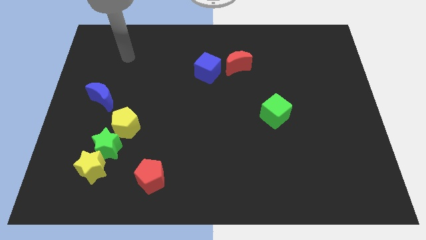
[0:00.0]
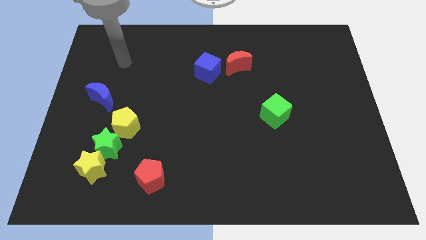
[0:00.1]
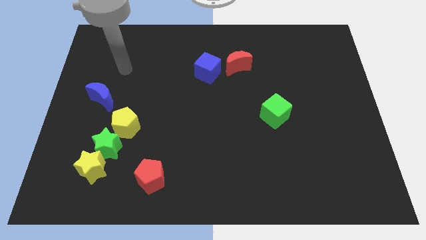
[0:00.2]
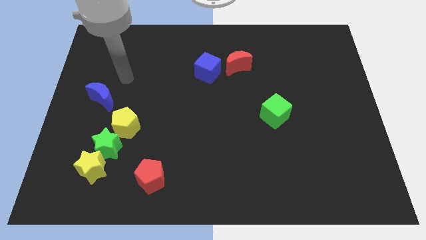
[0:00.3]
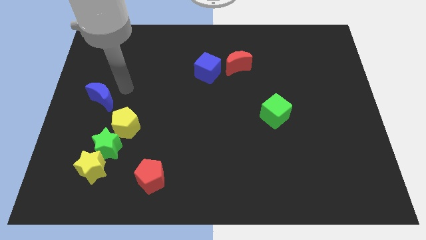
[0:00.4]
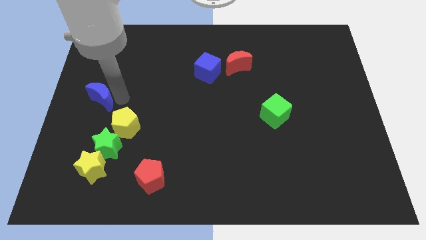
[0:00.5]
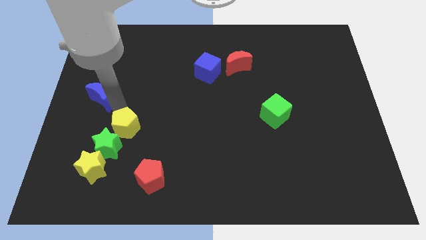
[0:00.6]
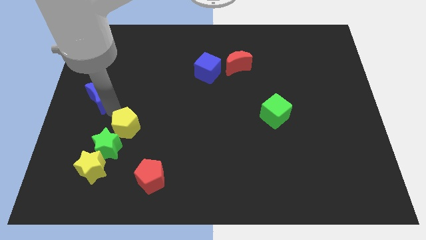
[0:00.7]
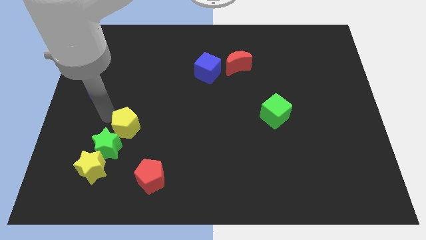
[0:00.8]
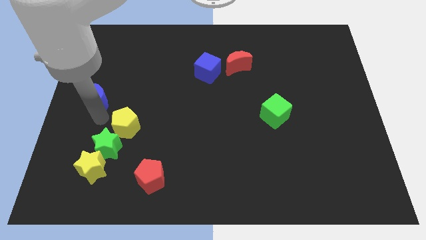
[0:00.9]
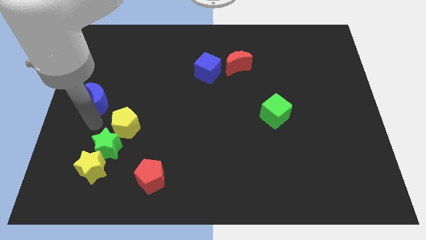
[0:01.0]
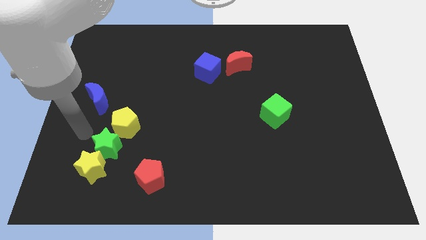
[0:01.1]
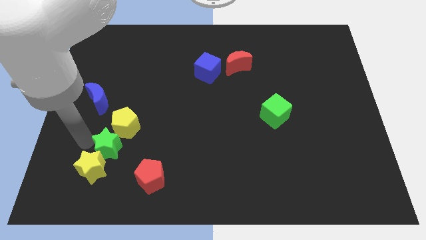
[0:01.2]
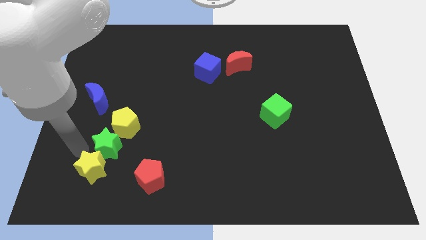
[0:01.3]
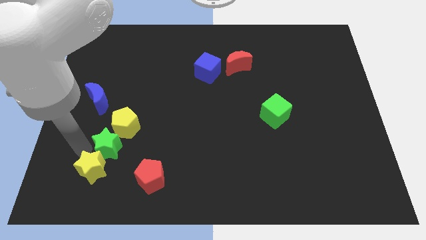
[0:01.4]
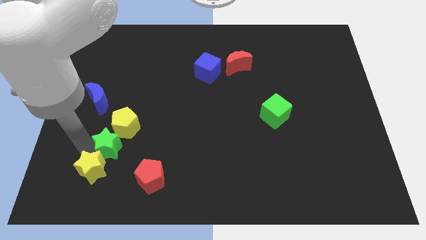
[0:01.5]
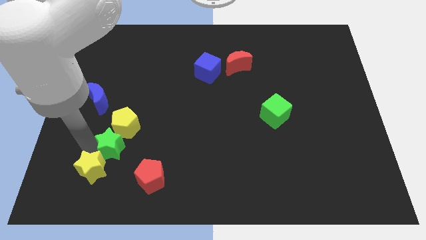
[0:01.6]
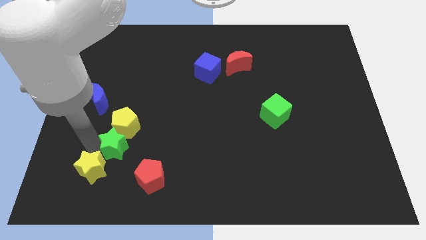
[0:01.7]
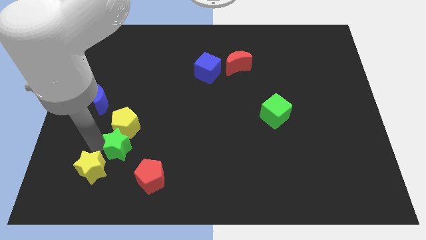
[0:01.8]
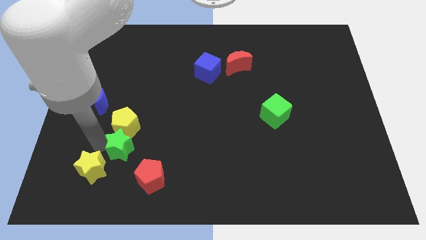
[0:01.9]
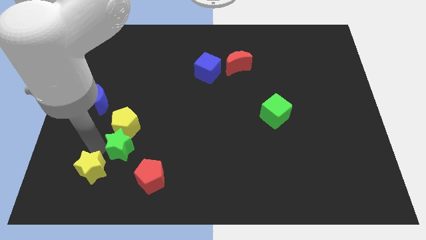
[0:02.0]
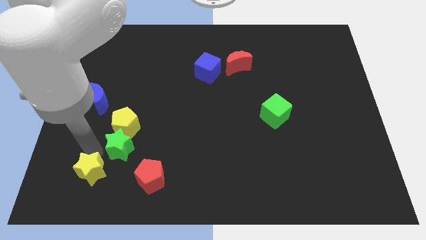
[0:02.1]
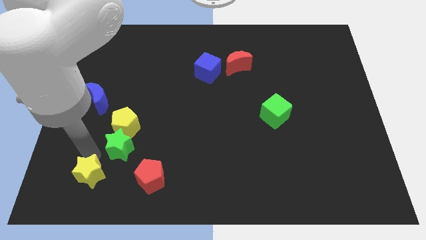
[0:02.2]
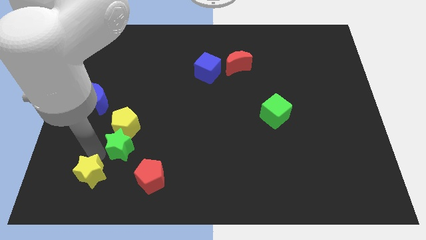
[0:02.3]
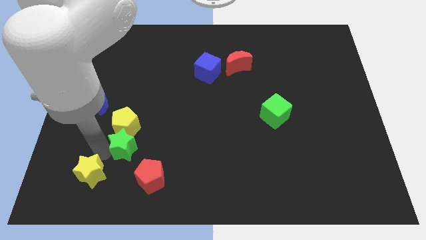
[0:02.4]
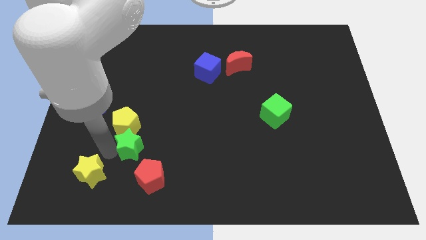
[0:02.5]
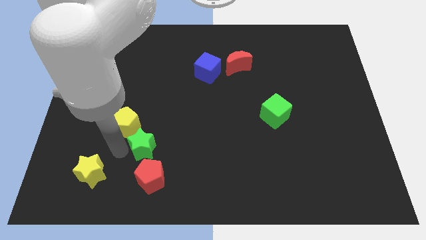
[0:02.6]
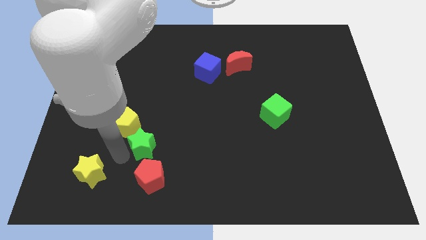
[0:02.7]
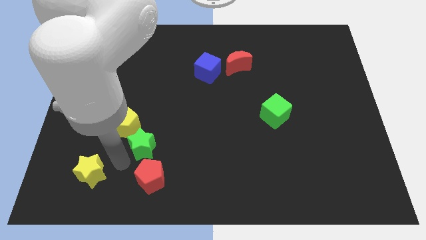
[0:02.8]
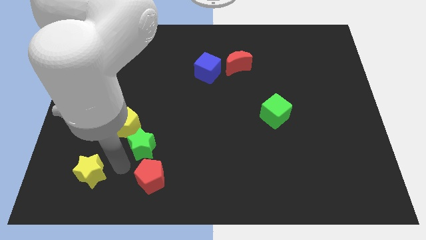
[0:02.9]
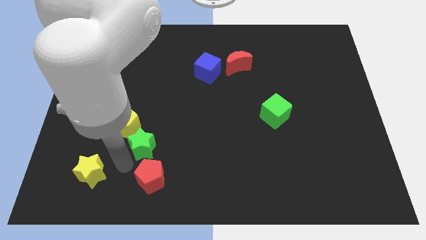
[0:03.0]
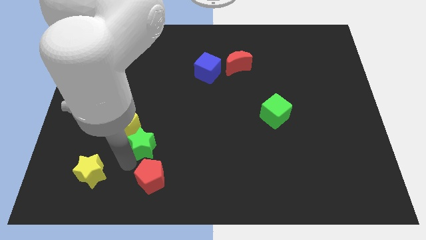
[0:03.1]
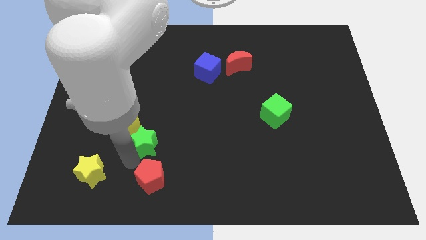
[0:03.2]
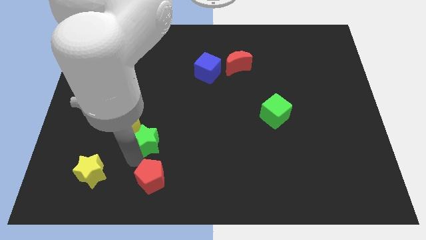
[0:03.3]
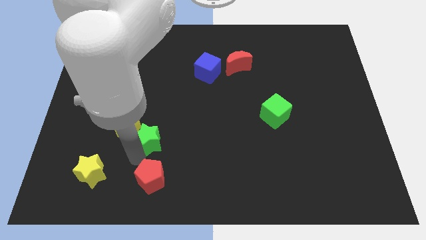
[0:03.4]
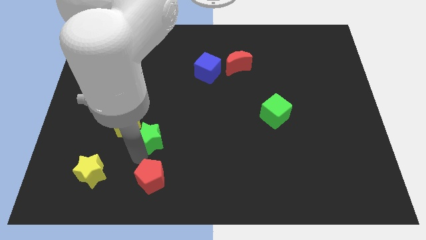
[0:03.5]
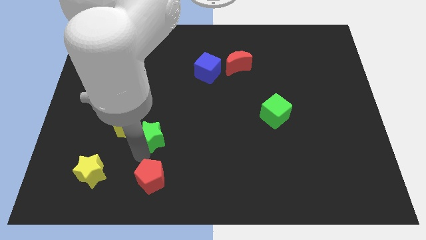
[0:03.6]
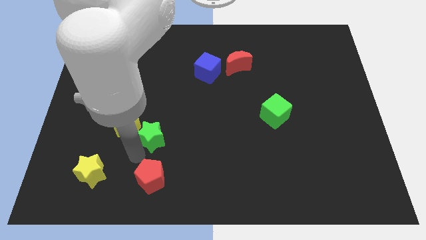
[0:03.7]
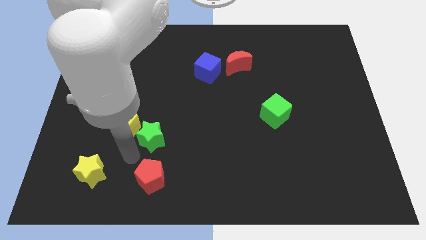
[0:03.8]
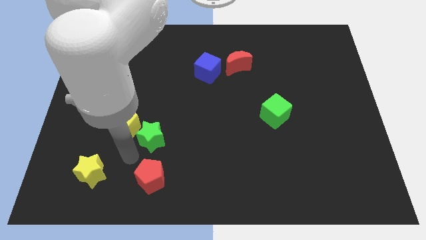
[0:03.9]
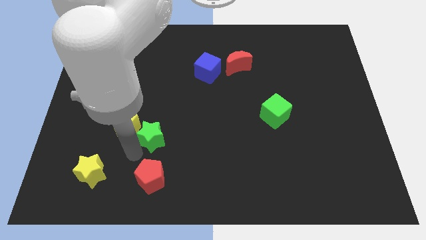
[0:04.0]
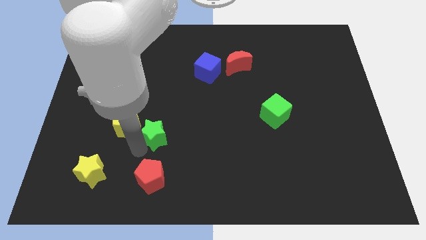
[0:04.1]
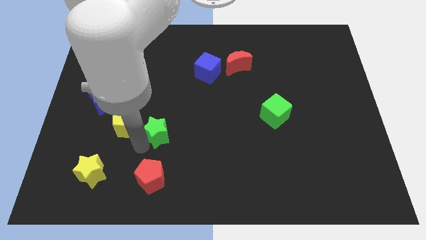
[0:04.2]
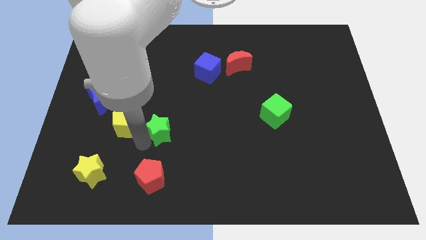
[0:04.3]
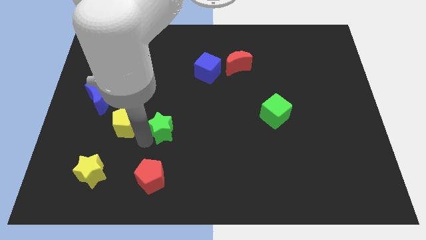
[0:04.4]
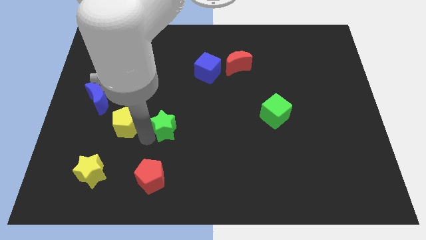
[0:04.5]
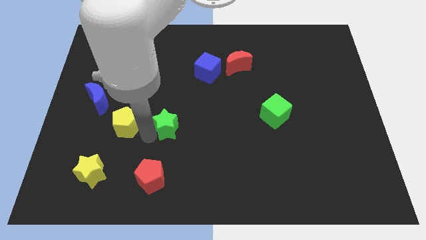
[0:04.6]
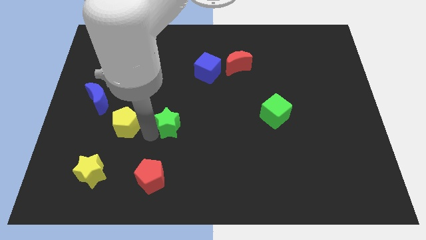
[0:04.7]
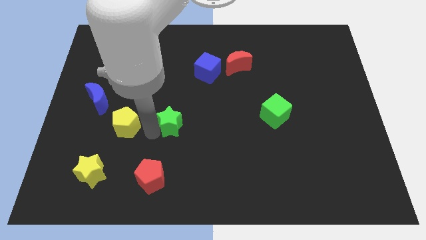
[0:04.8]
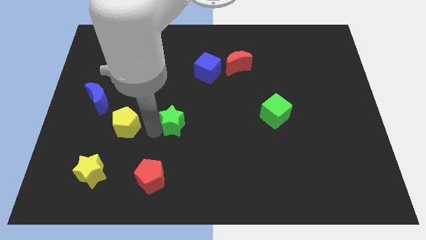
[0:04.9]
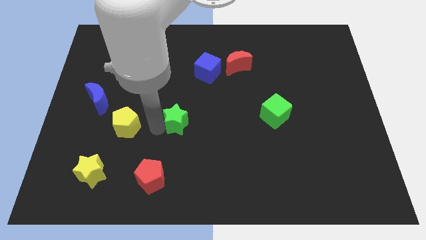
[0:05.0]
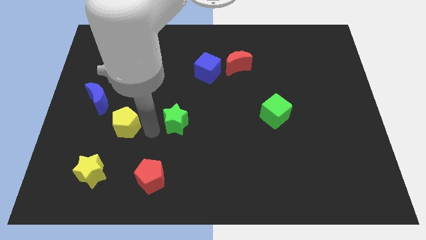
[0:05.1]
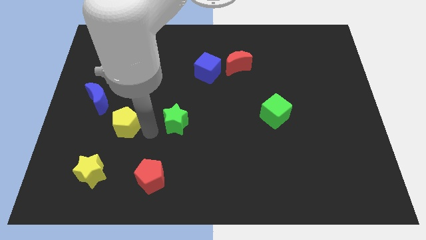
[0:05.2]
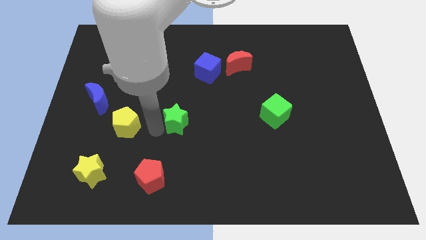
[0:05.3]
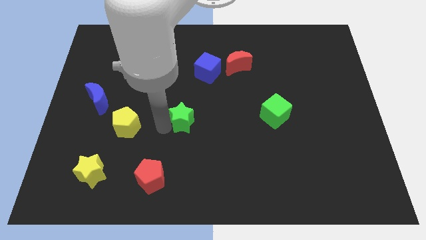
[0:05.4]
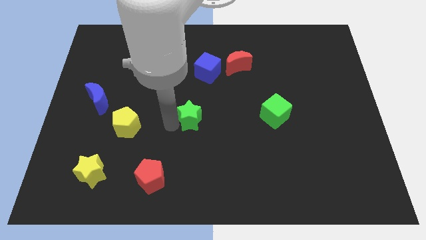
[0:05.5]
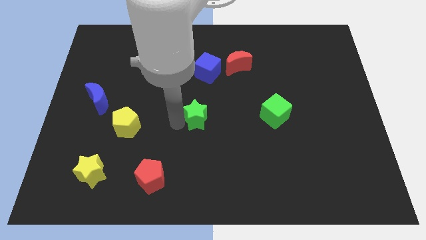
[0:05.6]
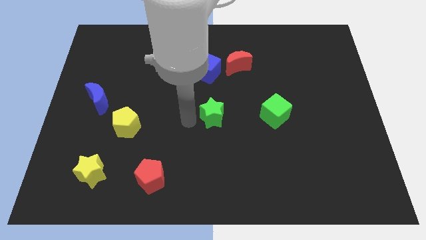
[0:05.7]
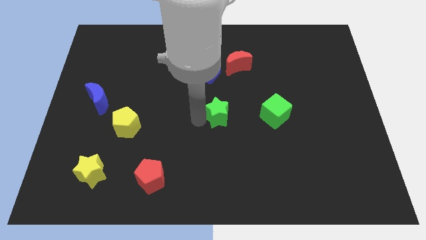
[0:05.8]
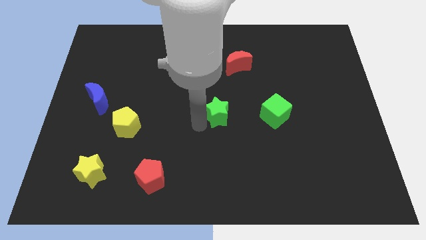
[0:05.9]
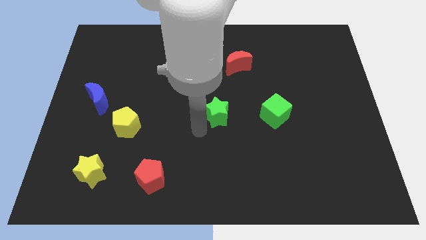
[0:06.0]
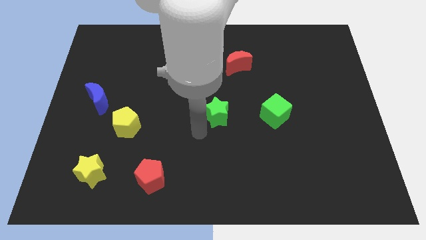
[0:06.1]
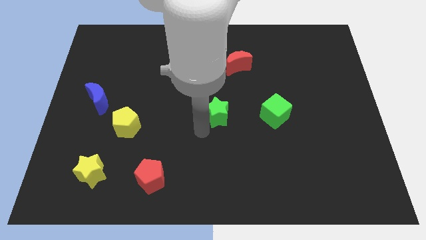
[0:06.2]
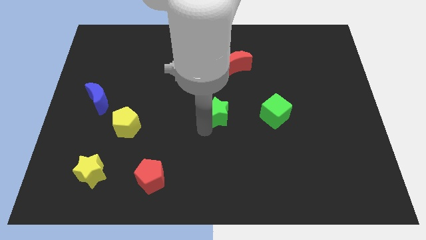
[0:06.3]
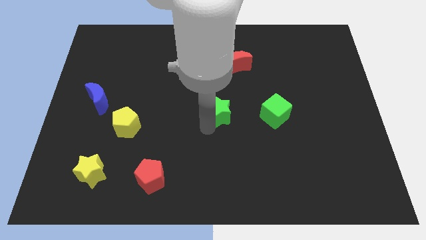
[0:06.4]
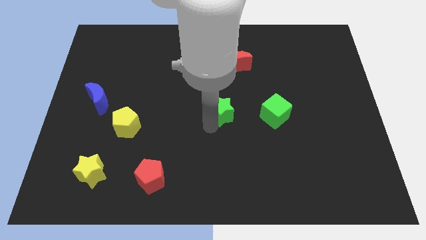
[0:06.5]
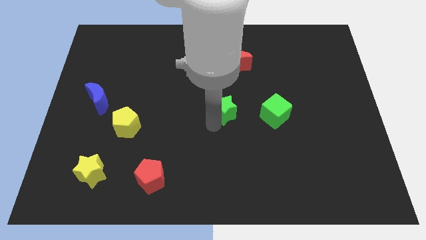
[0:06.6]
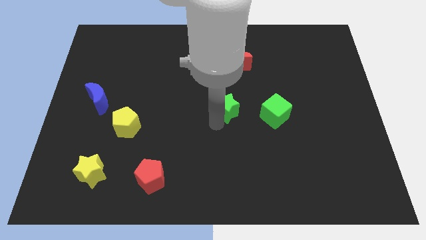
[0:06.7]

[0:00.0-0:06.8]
push the green star to the bottom of the red moon

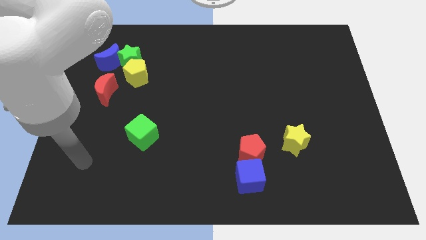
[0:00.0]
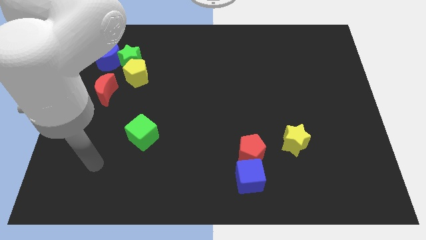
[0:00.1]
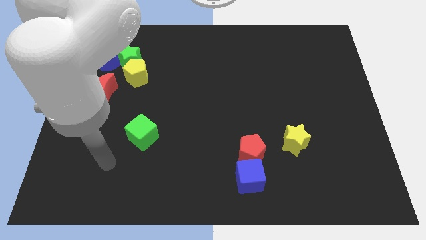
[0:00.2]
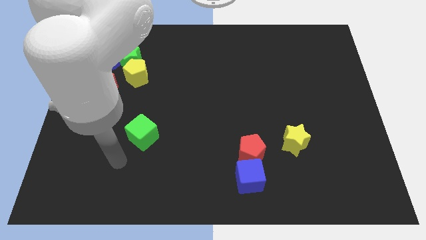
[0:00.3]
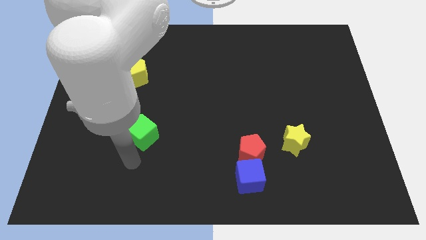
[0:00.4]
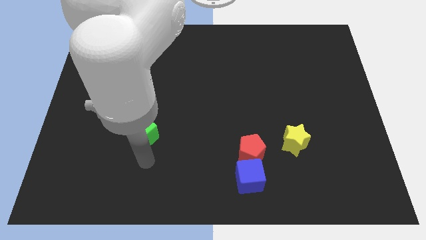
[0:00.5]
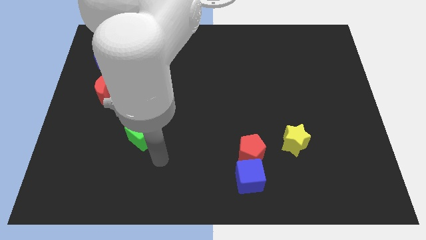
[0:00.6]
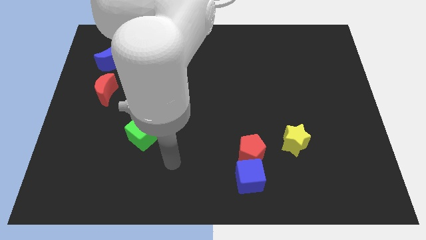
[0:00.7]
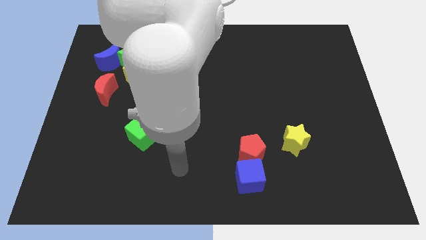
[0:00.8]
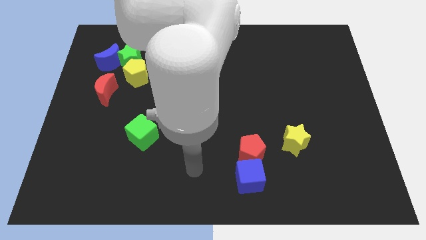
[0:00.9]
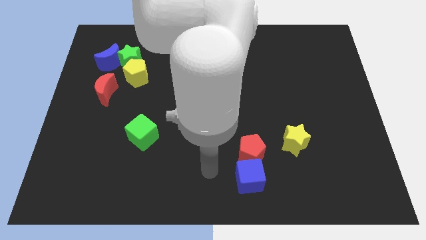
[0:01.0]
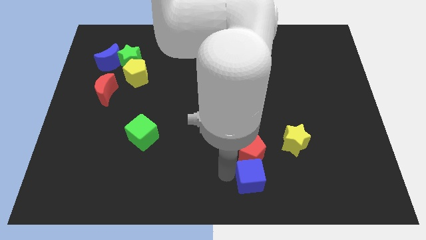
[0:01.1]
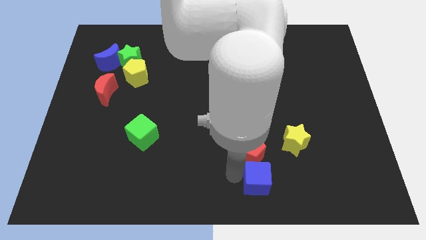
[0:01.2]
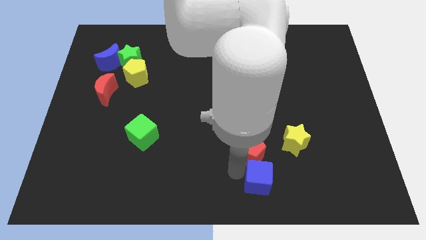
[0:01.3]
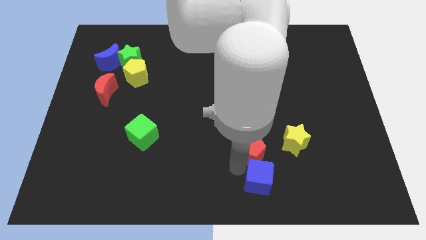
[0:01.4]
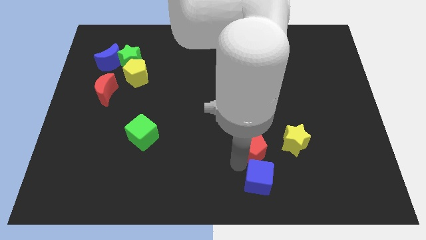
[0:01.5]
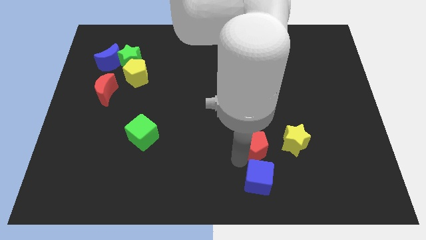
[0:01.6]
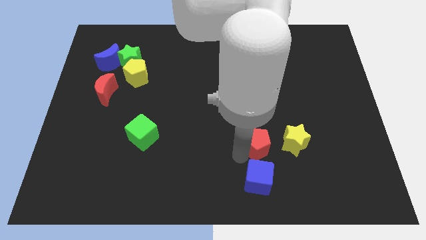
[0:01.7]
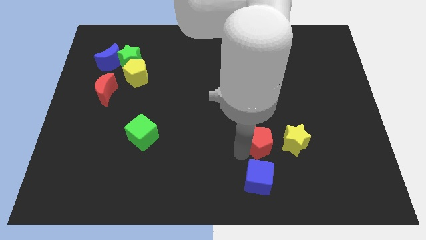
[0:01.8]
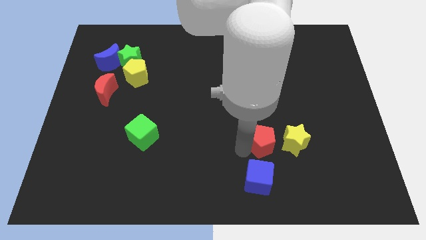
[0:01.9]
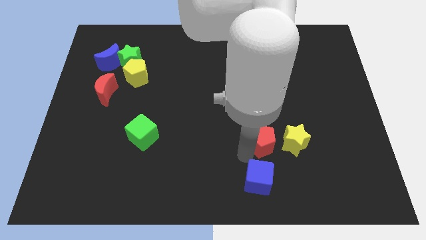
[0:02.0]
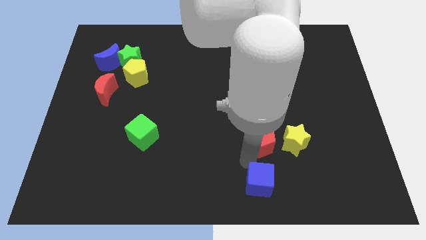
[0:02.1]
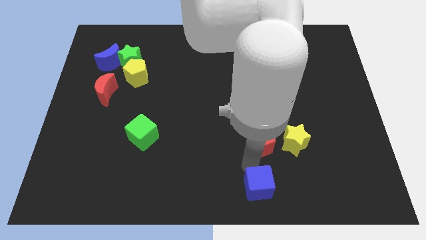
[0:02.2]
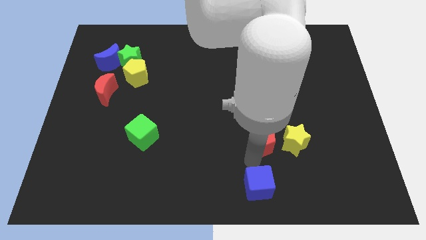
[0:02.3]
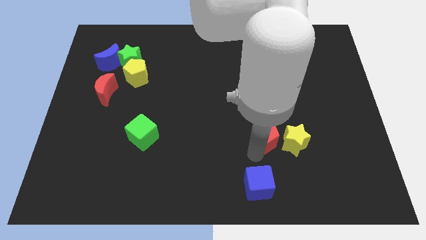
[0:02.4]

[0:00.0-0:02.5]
slide the red pentagon diagonally up and to the left of the yellow star
